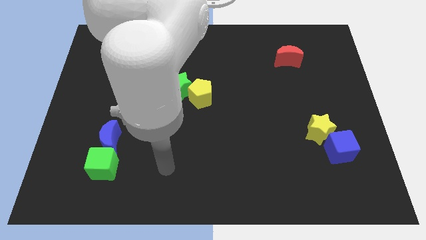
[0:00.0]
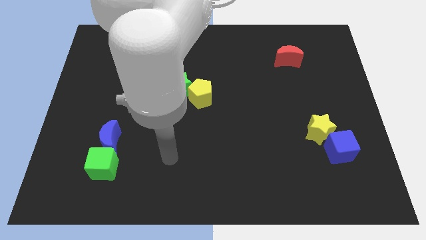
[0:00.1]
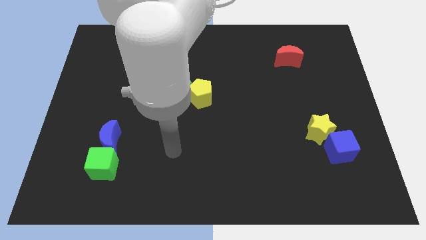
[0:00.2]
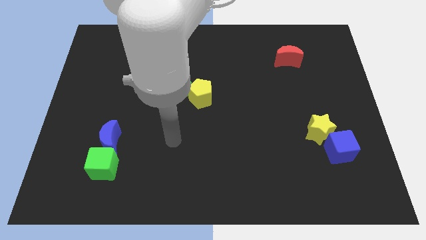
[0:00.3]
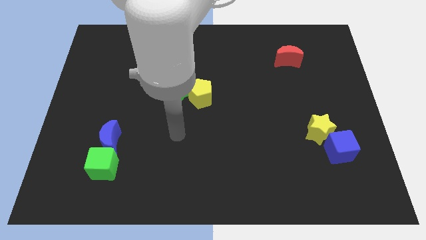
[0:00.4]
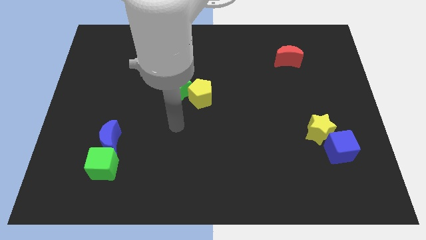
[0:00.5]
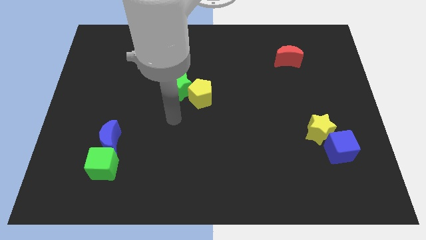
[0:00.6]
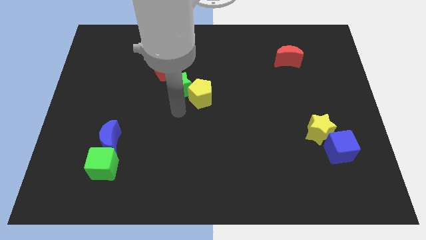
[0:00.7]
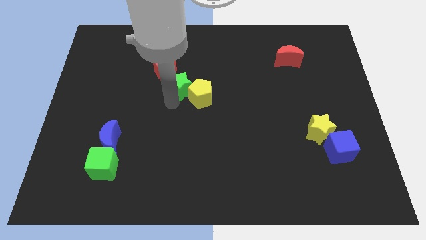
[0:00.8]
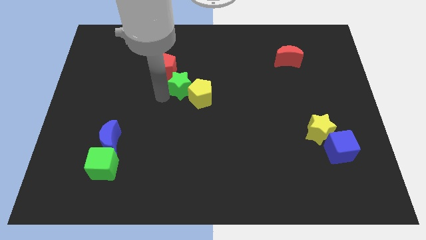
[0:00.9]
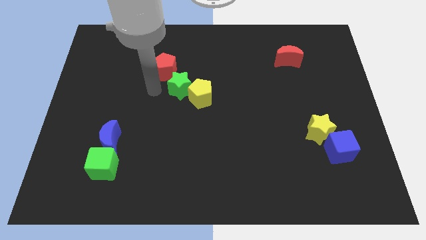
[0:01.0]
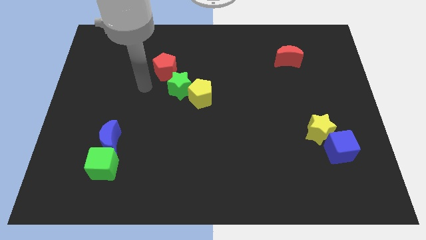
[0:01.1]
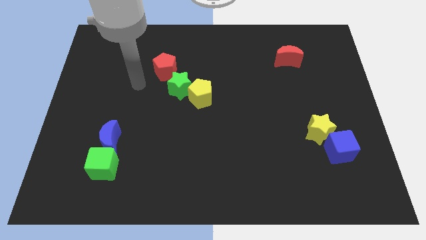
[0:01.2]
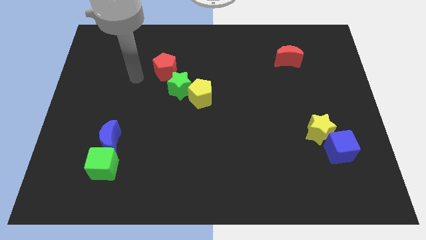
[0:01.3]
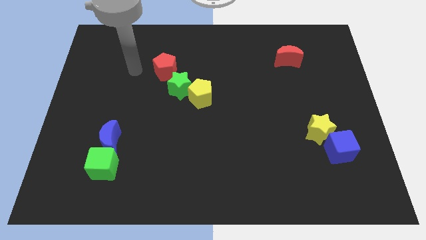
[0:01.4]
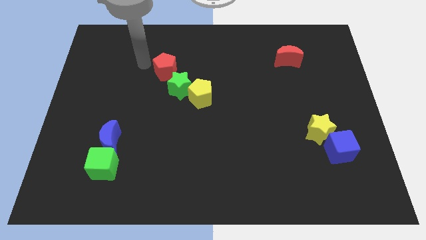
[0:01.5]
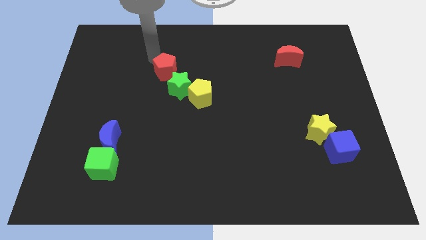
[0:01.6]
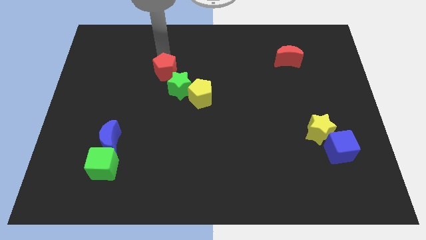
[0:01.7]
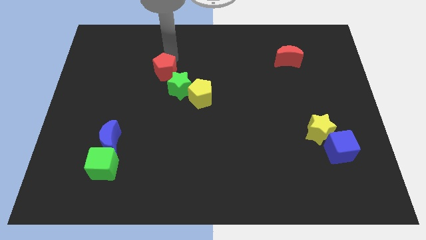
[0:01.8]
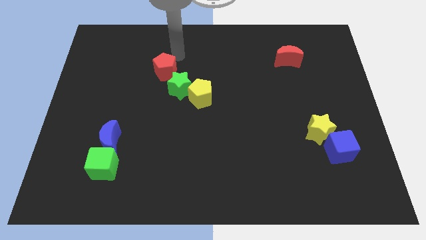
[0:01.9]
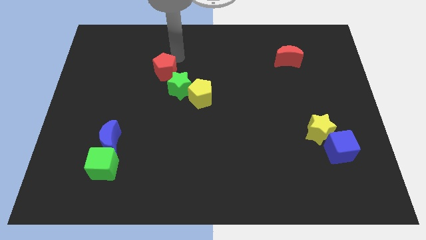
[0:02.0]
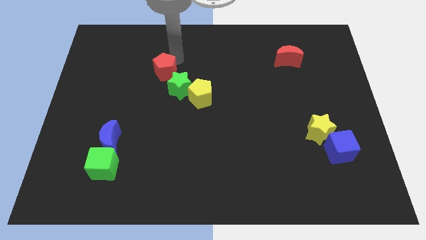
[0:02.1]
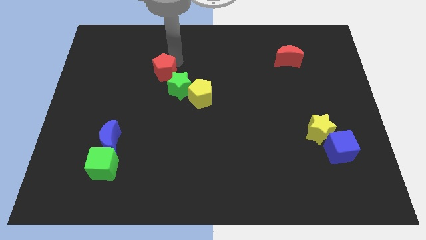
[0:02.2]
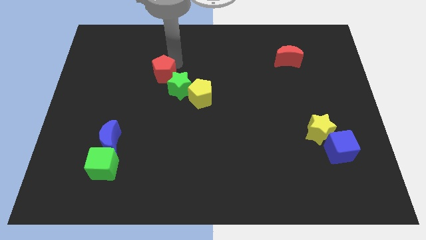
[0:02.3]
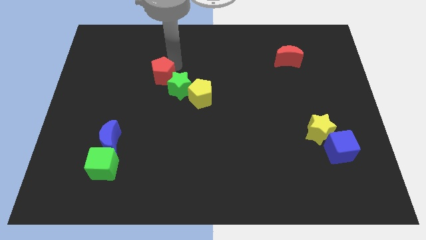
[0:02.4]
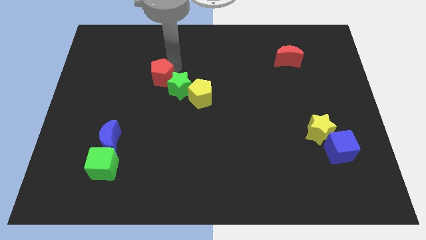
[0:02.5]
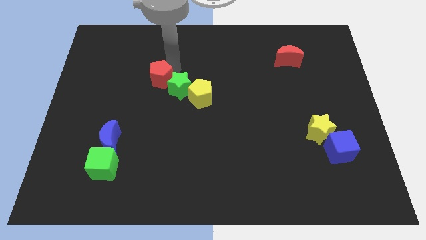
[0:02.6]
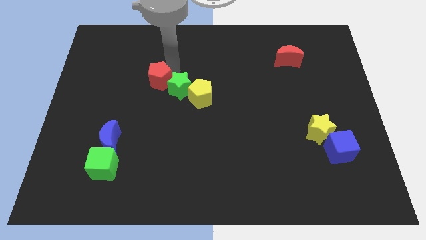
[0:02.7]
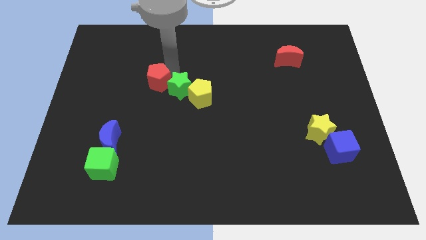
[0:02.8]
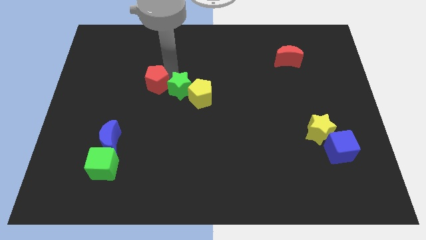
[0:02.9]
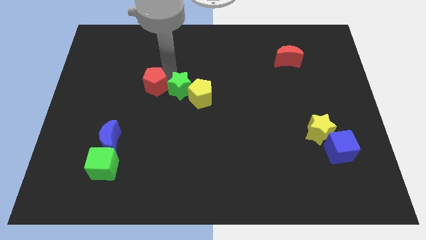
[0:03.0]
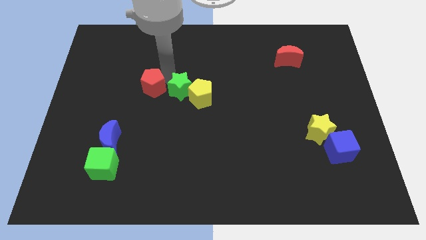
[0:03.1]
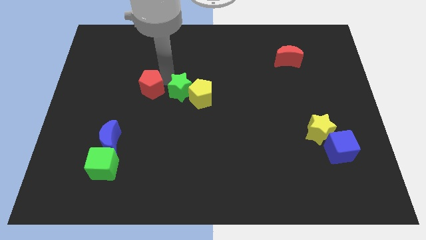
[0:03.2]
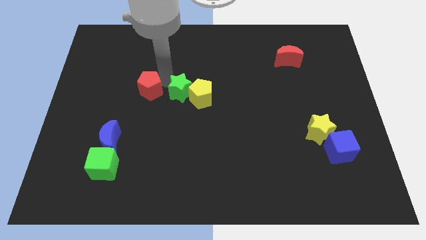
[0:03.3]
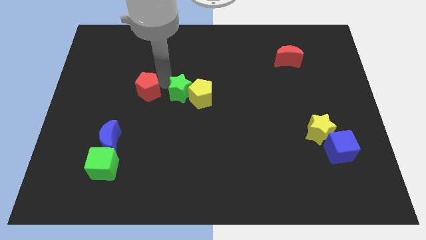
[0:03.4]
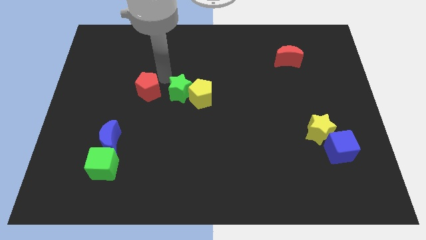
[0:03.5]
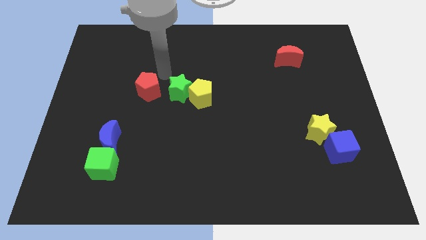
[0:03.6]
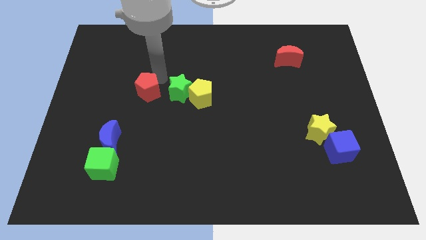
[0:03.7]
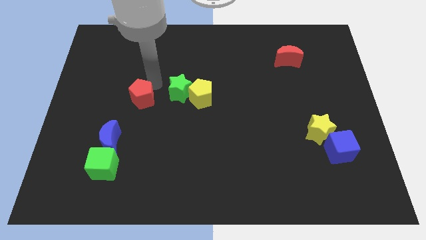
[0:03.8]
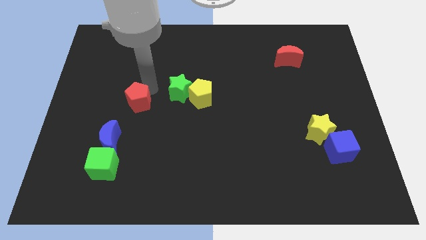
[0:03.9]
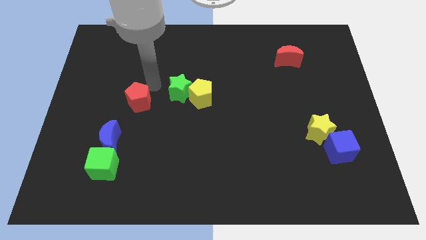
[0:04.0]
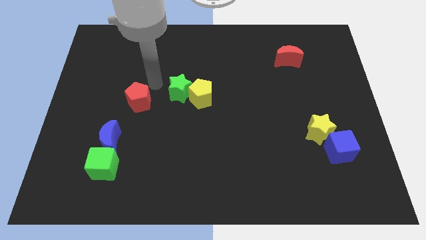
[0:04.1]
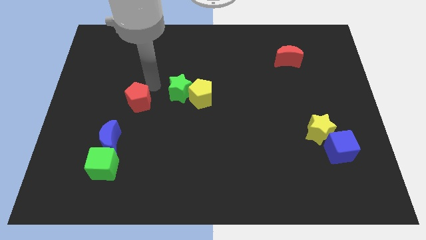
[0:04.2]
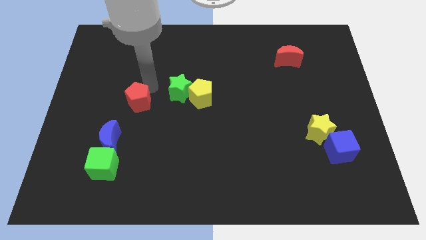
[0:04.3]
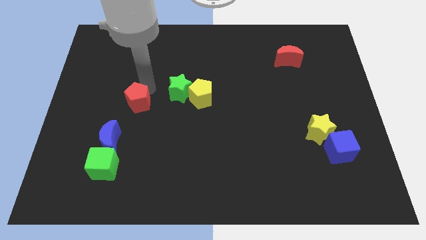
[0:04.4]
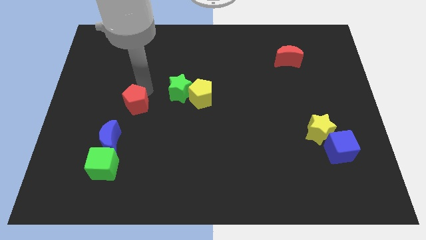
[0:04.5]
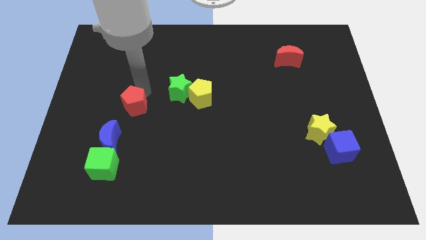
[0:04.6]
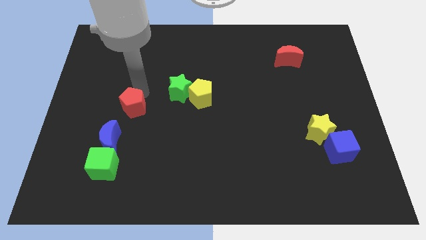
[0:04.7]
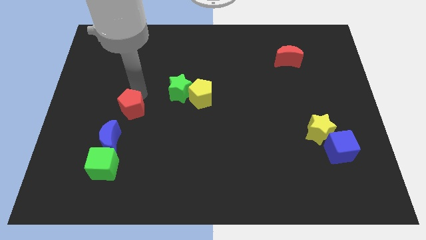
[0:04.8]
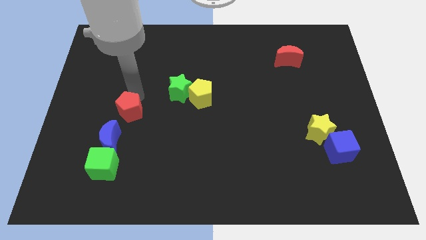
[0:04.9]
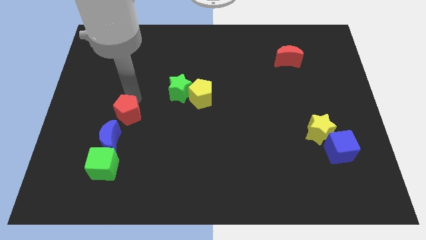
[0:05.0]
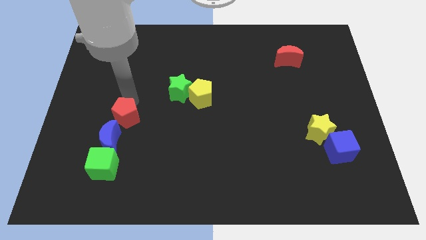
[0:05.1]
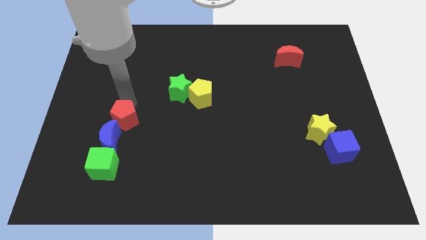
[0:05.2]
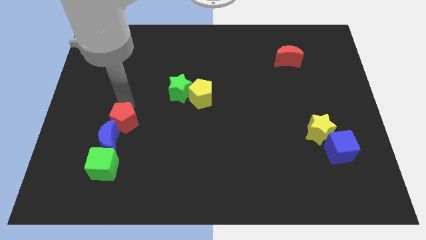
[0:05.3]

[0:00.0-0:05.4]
move the red pentagon towards the blue moon
